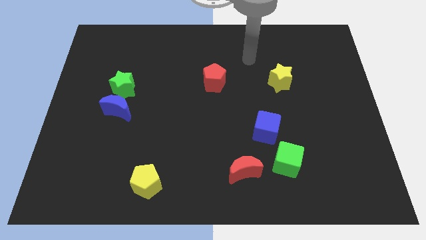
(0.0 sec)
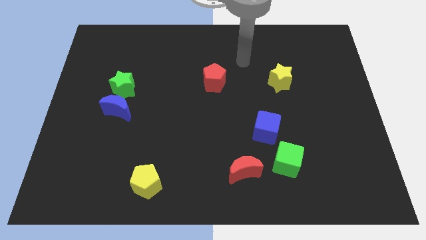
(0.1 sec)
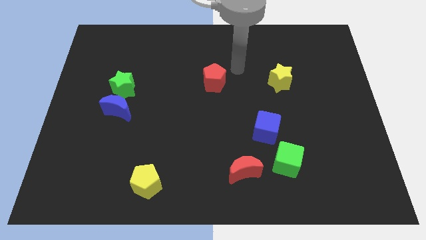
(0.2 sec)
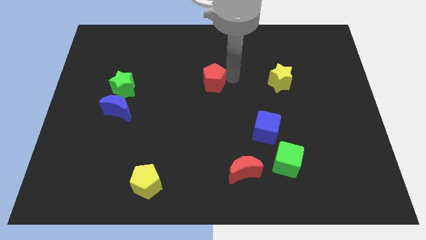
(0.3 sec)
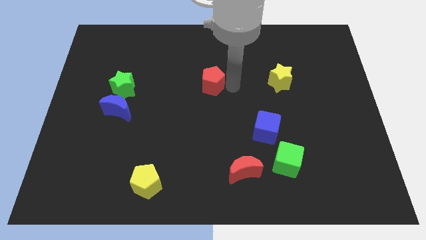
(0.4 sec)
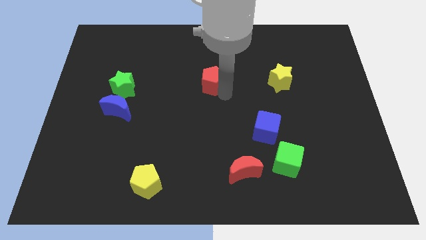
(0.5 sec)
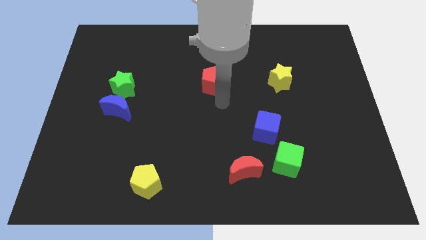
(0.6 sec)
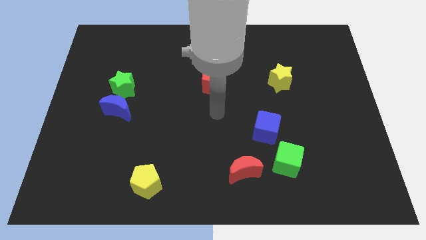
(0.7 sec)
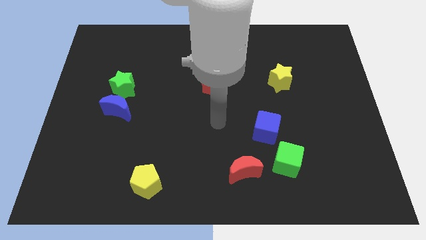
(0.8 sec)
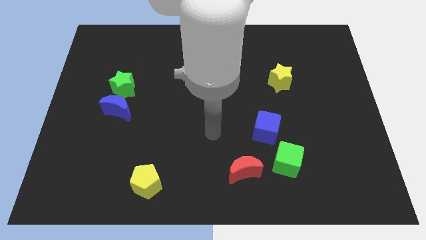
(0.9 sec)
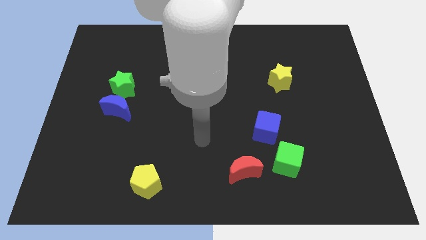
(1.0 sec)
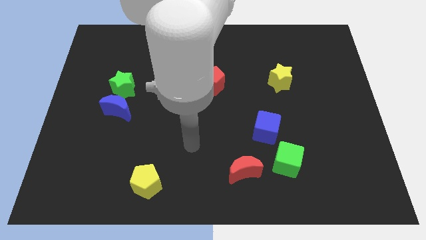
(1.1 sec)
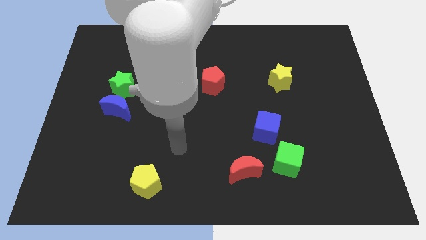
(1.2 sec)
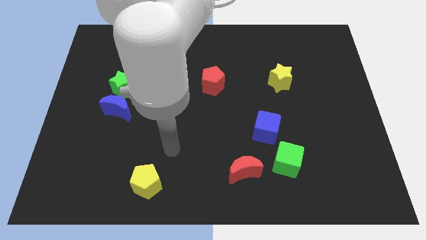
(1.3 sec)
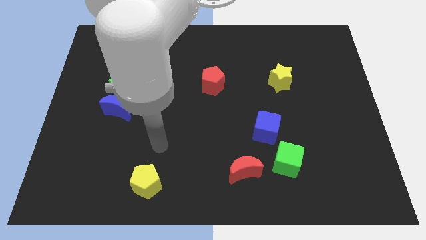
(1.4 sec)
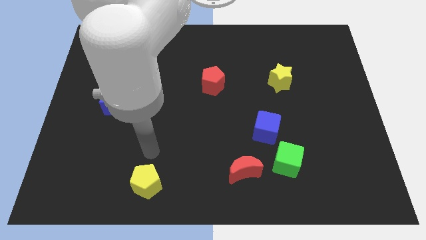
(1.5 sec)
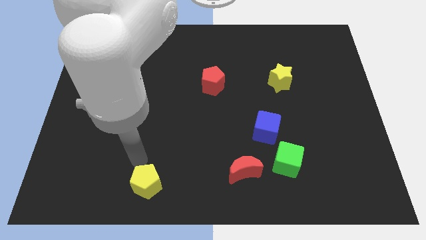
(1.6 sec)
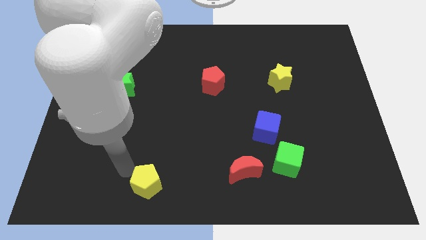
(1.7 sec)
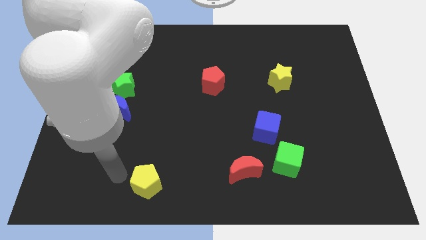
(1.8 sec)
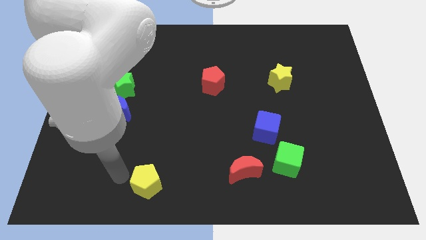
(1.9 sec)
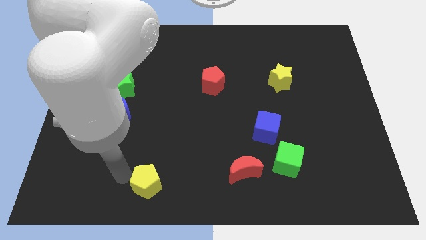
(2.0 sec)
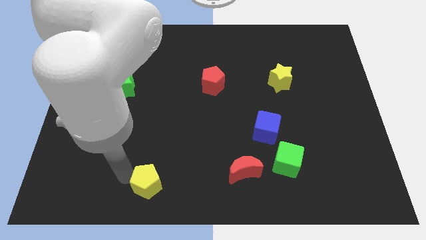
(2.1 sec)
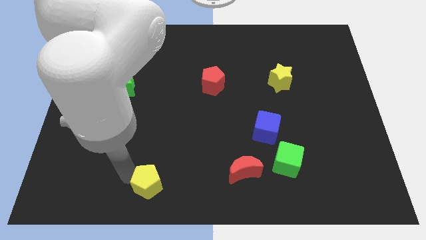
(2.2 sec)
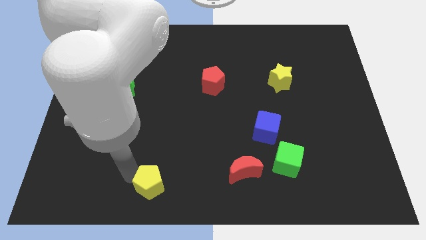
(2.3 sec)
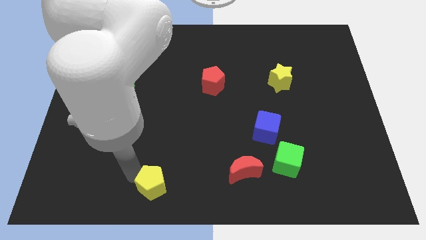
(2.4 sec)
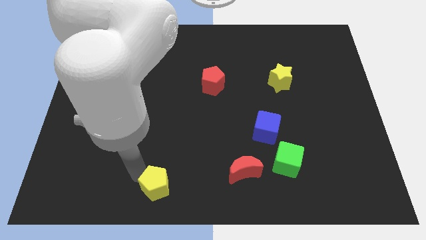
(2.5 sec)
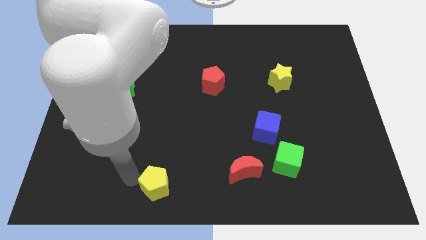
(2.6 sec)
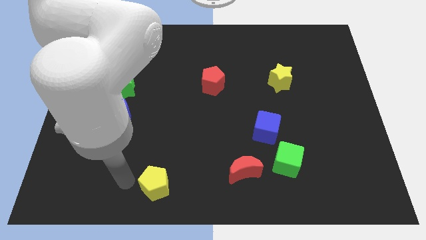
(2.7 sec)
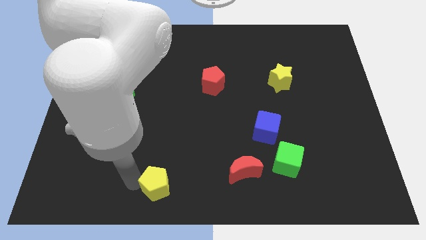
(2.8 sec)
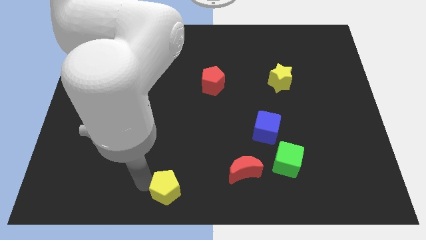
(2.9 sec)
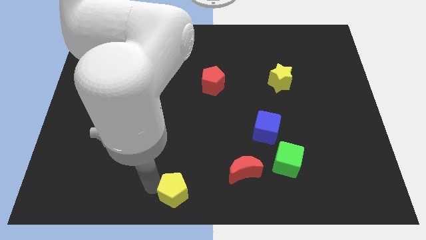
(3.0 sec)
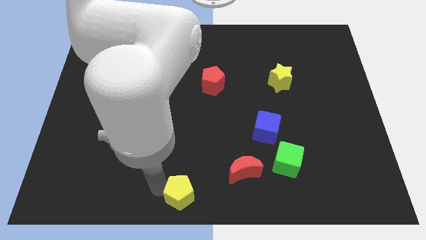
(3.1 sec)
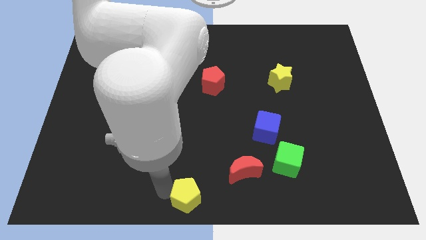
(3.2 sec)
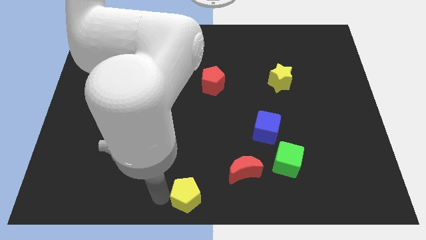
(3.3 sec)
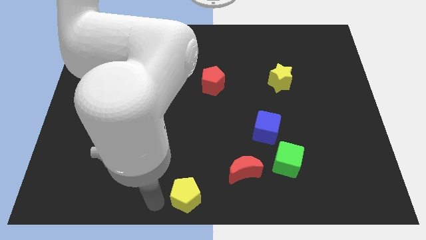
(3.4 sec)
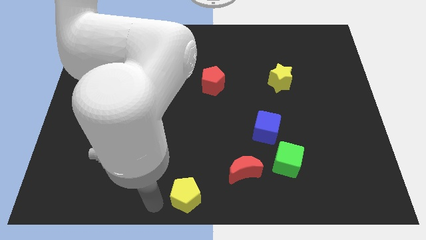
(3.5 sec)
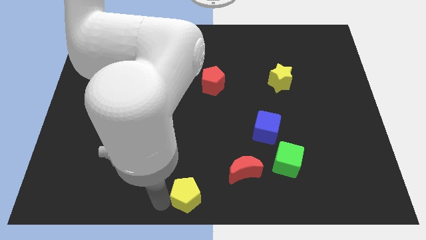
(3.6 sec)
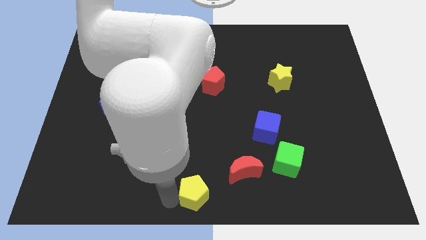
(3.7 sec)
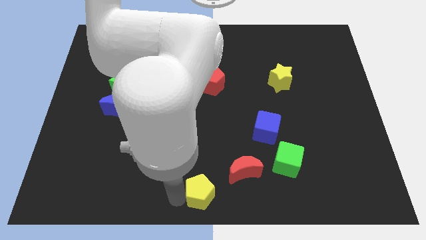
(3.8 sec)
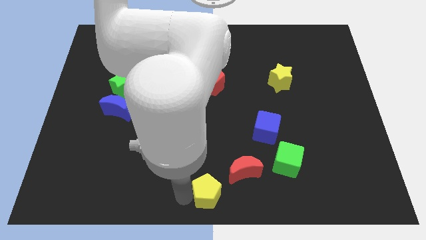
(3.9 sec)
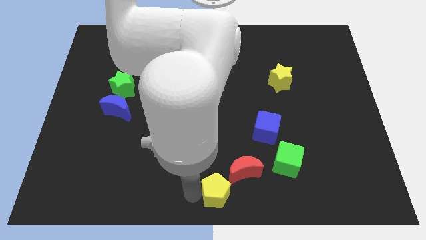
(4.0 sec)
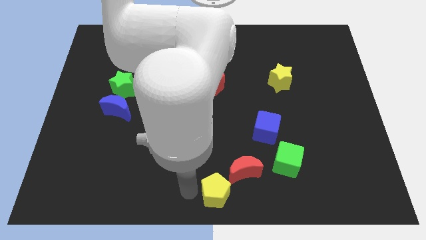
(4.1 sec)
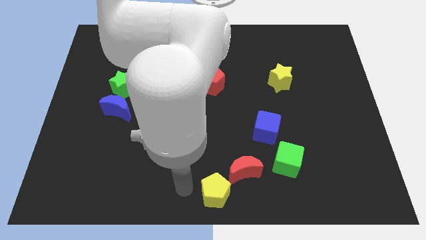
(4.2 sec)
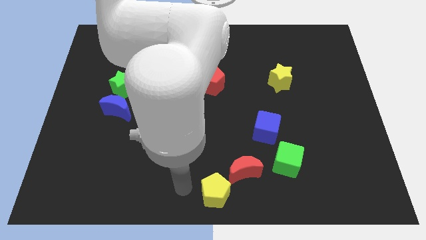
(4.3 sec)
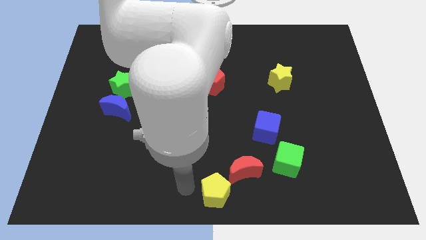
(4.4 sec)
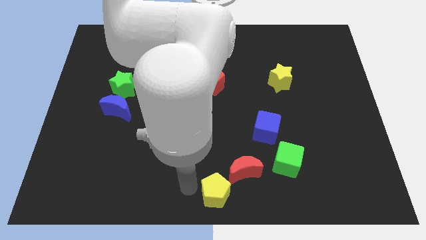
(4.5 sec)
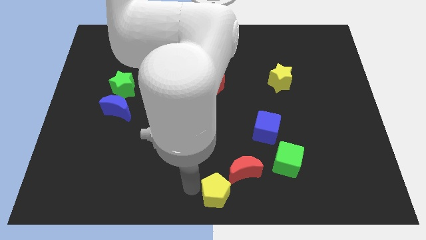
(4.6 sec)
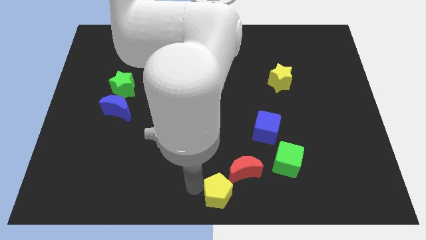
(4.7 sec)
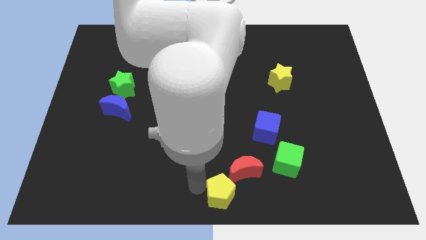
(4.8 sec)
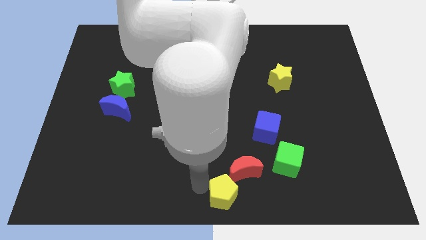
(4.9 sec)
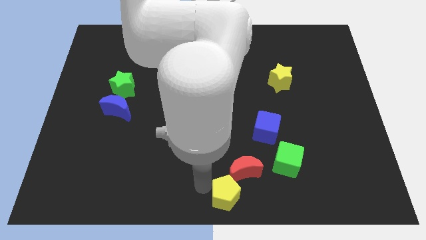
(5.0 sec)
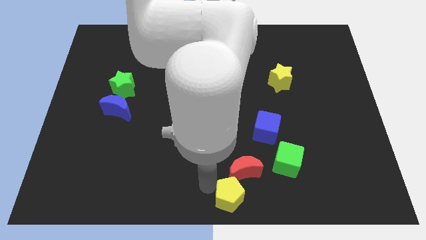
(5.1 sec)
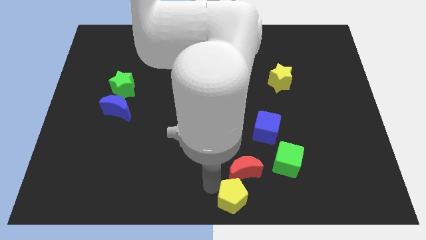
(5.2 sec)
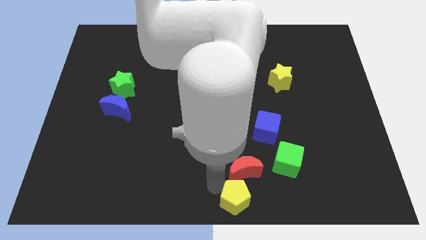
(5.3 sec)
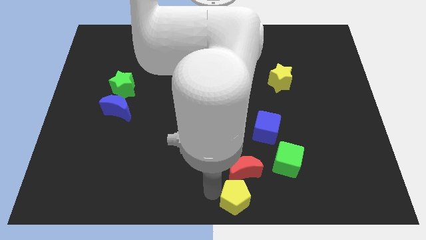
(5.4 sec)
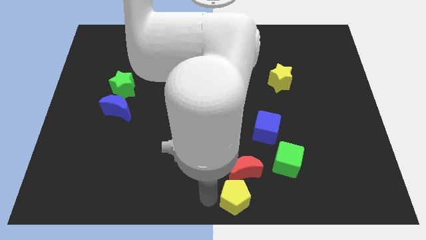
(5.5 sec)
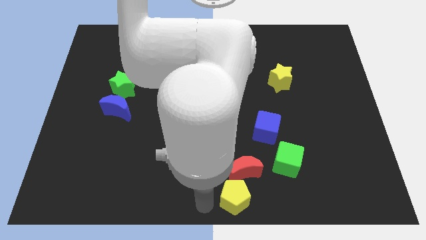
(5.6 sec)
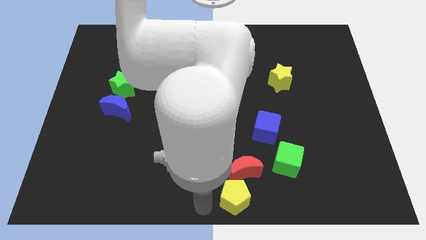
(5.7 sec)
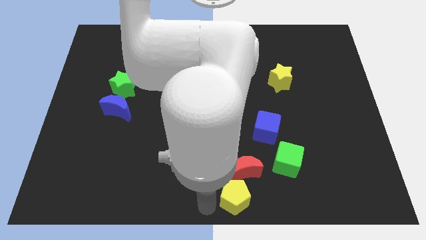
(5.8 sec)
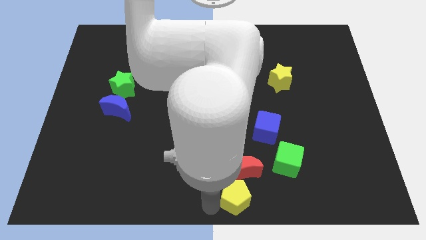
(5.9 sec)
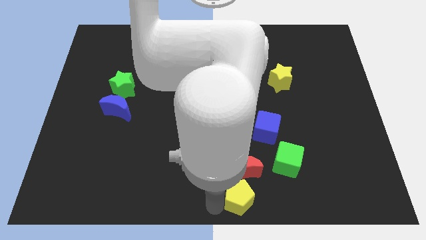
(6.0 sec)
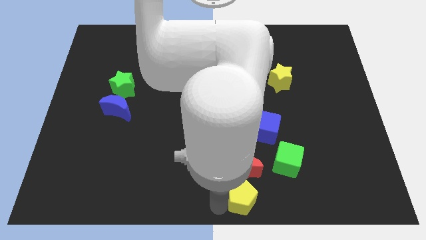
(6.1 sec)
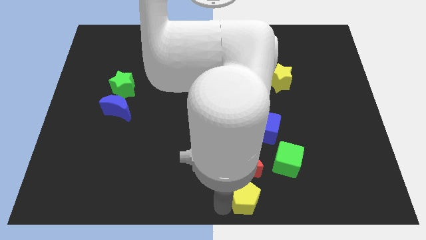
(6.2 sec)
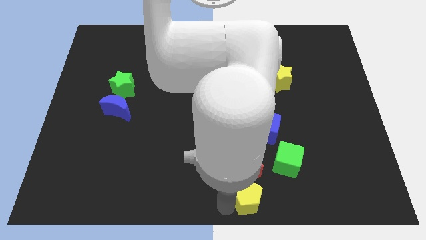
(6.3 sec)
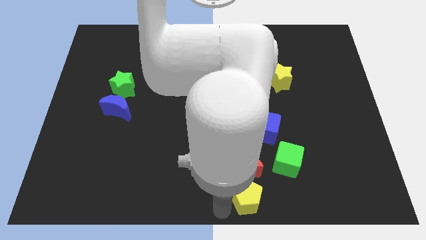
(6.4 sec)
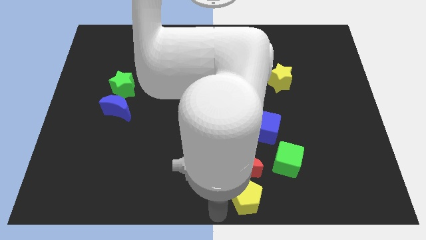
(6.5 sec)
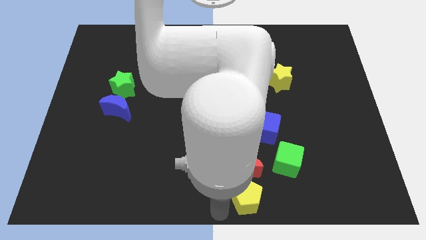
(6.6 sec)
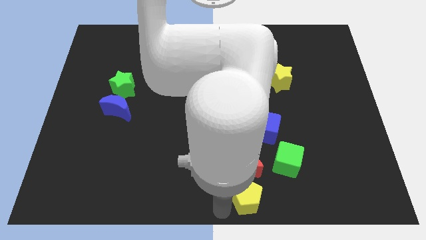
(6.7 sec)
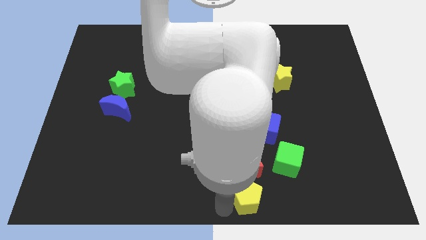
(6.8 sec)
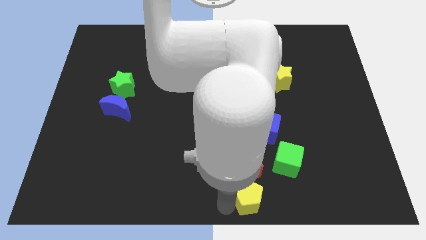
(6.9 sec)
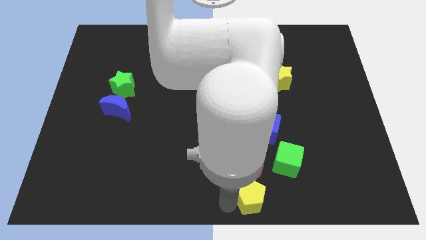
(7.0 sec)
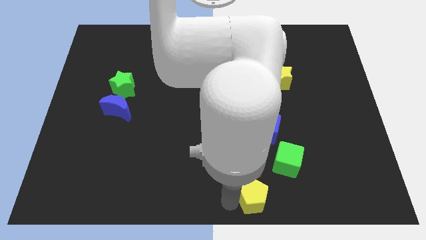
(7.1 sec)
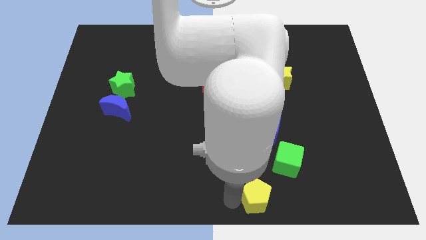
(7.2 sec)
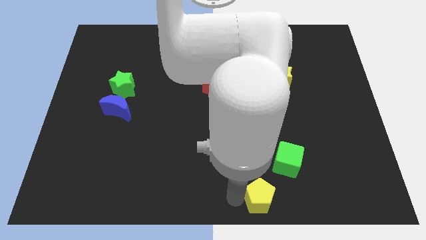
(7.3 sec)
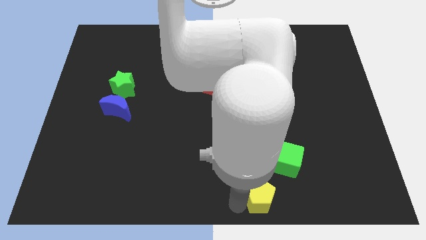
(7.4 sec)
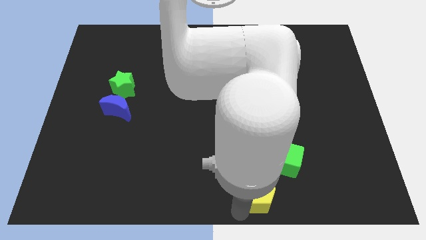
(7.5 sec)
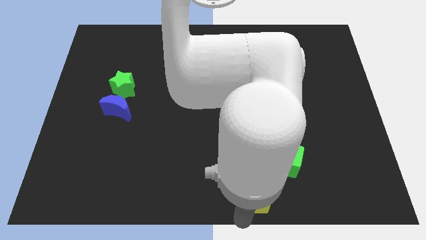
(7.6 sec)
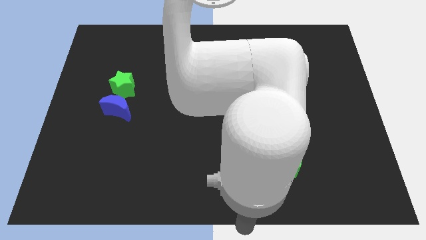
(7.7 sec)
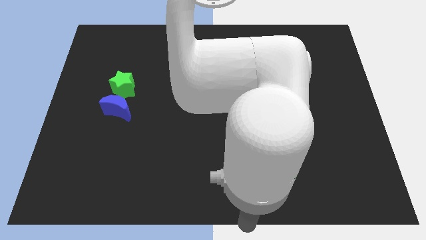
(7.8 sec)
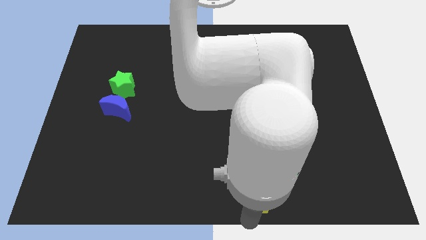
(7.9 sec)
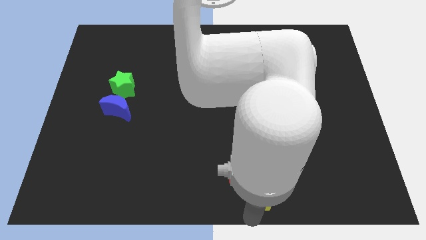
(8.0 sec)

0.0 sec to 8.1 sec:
move the yellow pentagon to the bottom side of the blue cube
